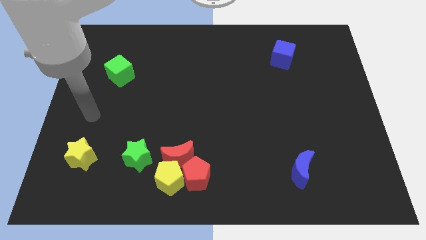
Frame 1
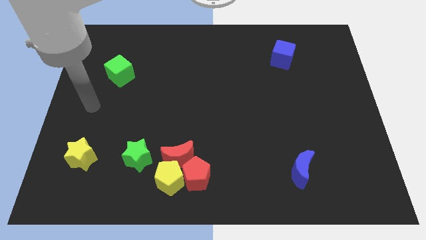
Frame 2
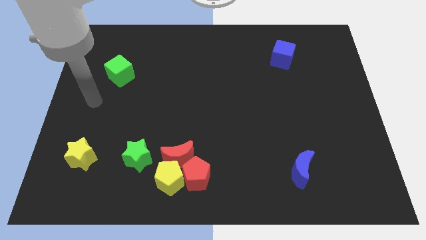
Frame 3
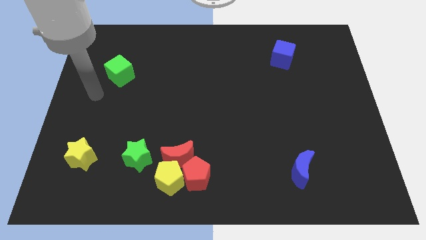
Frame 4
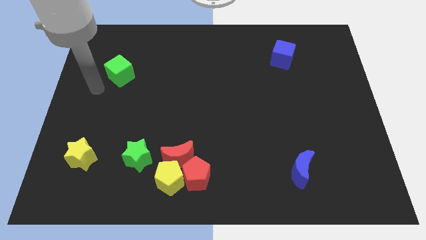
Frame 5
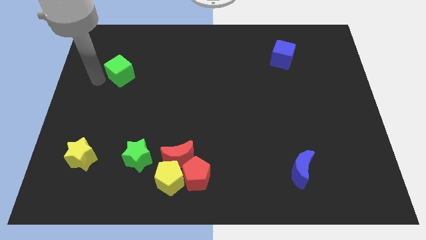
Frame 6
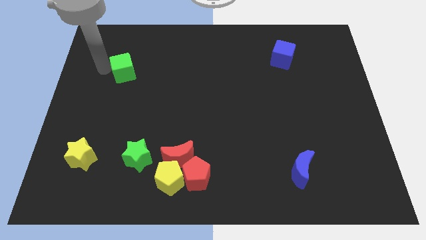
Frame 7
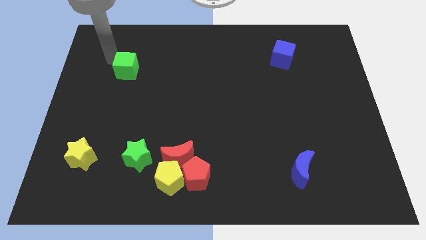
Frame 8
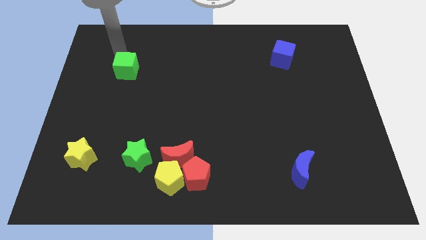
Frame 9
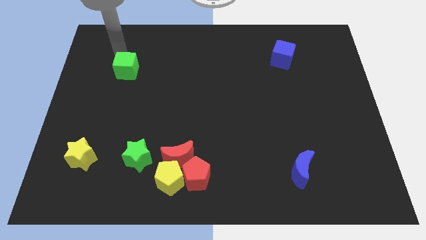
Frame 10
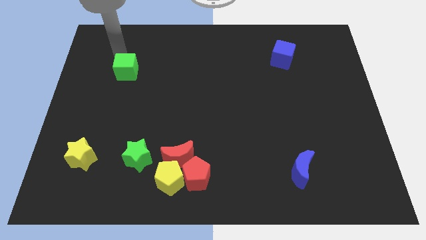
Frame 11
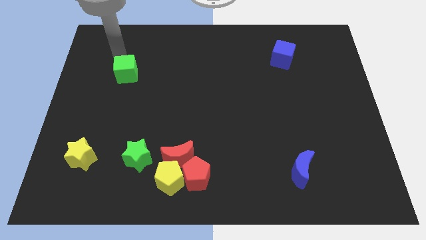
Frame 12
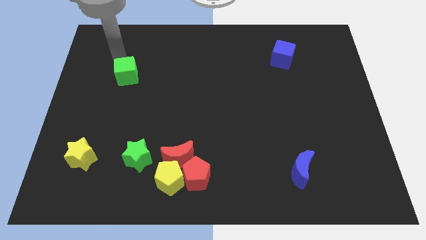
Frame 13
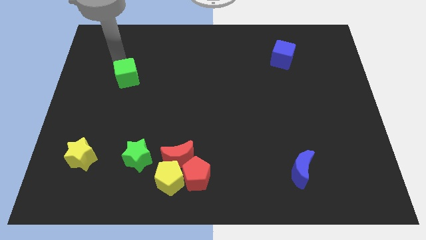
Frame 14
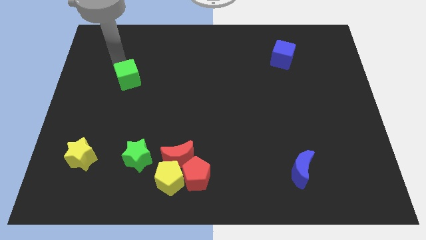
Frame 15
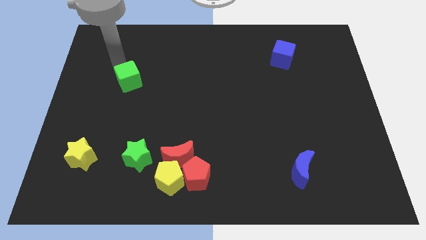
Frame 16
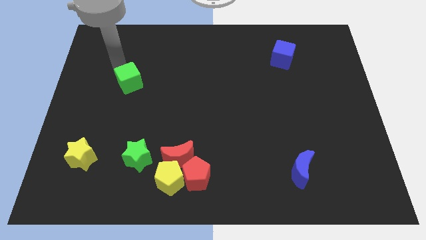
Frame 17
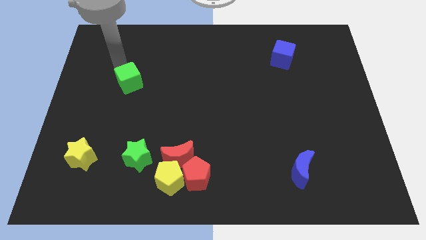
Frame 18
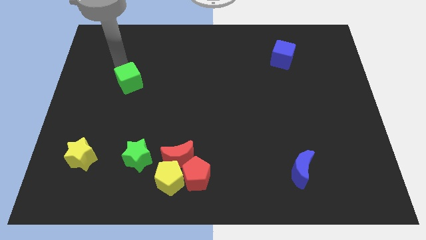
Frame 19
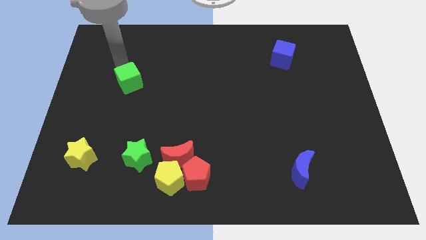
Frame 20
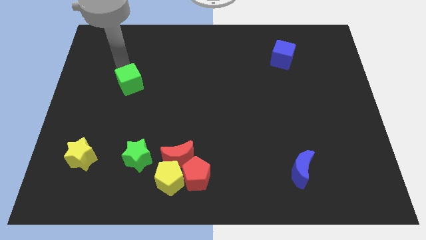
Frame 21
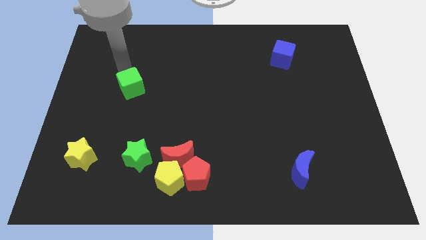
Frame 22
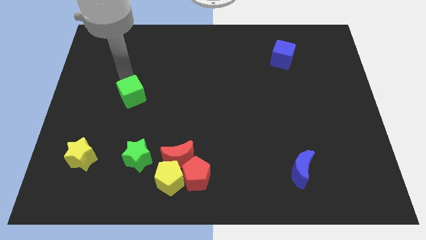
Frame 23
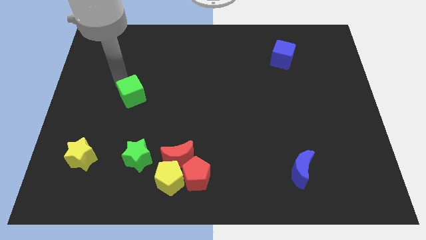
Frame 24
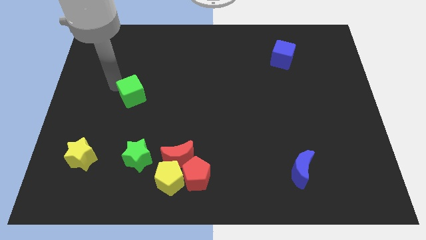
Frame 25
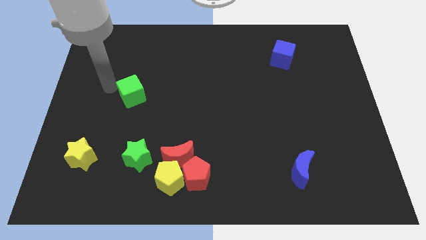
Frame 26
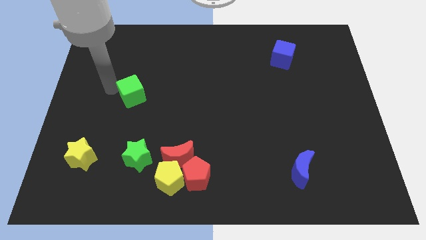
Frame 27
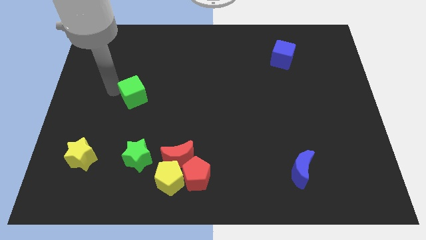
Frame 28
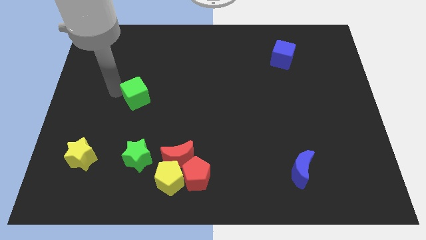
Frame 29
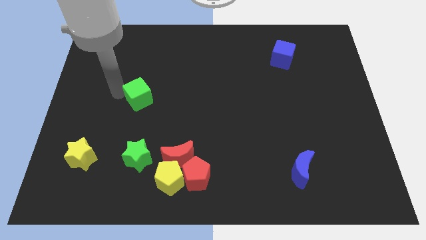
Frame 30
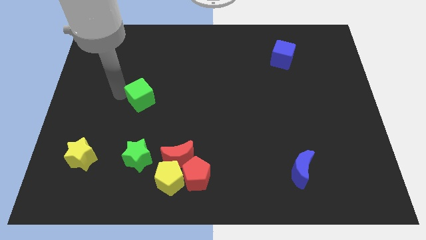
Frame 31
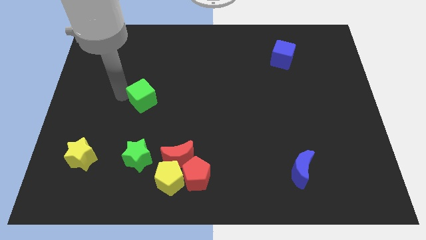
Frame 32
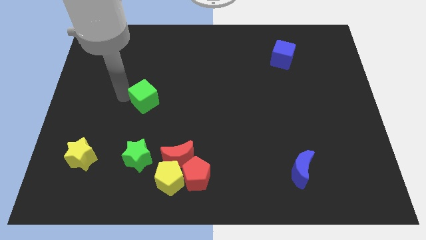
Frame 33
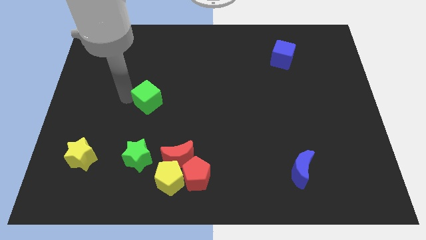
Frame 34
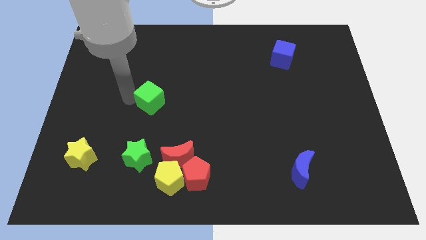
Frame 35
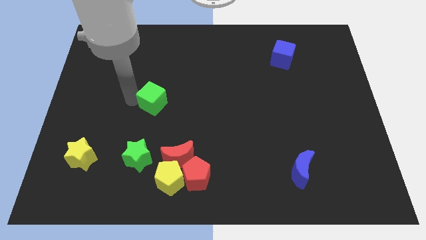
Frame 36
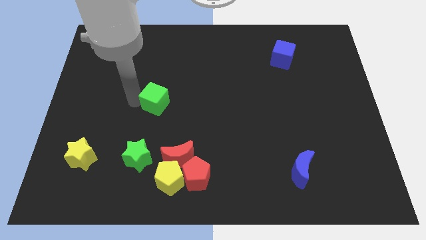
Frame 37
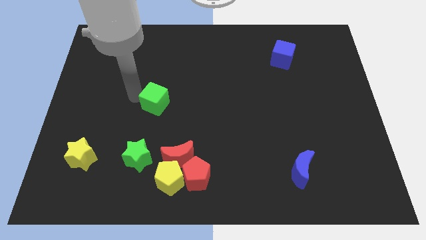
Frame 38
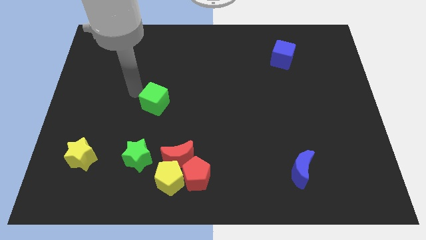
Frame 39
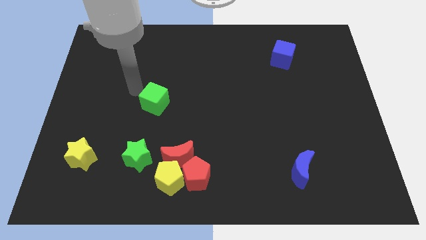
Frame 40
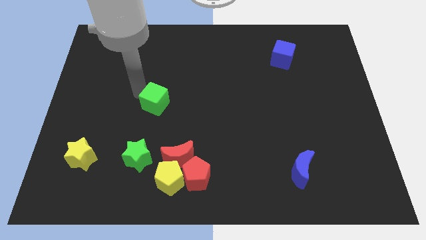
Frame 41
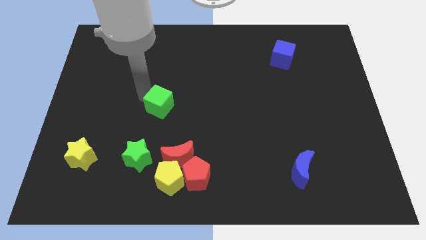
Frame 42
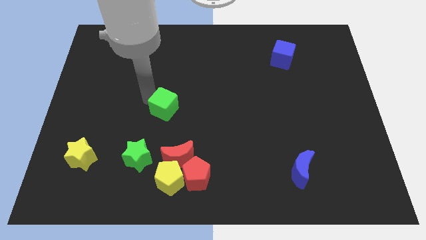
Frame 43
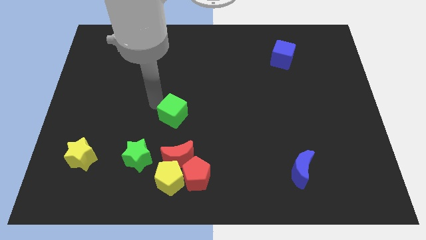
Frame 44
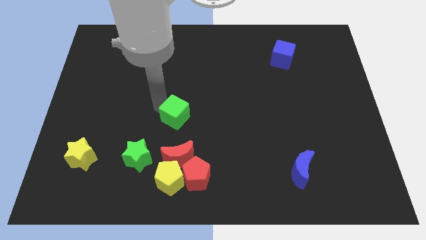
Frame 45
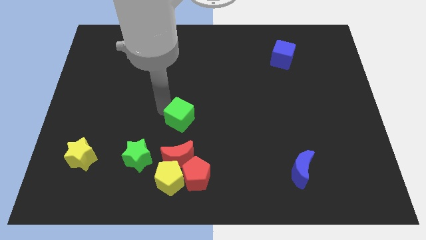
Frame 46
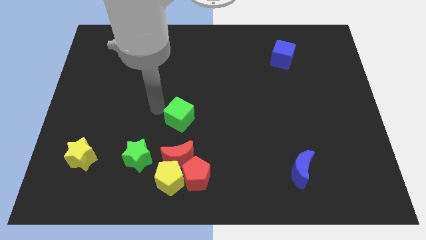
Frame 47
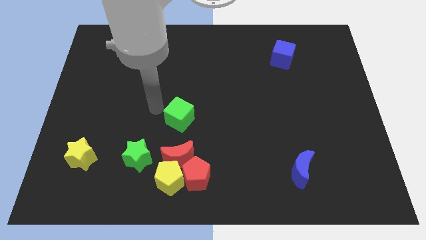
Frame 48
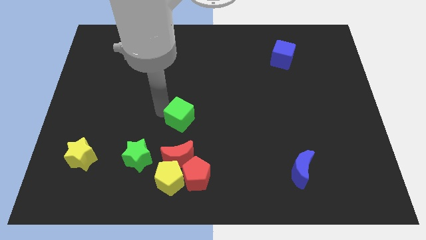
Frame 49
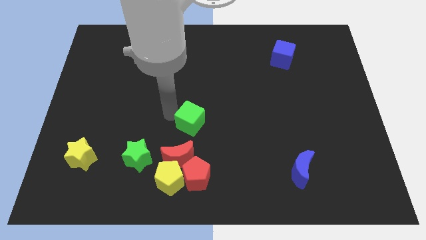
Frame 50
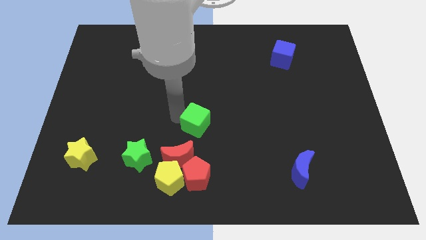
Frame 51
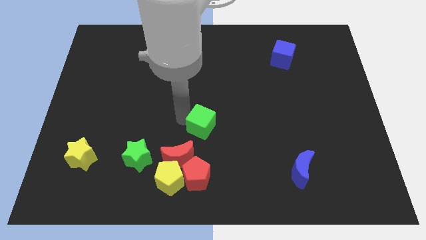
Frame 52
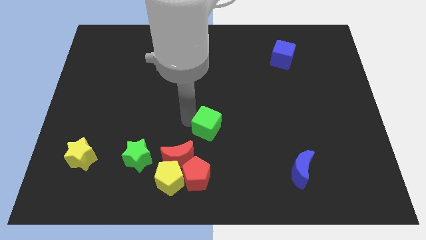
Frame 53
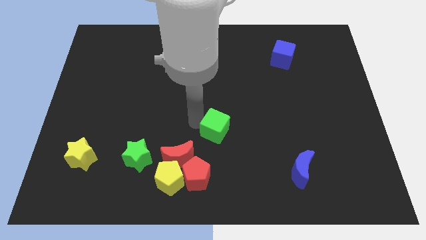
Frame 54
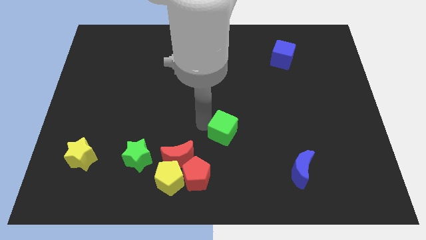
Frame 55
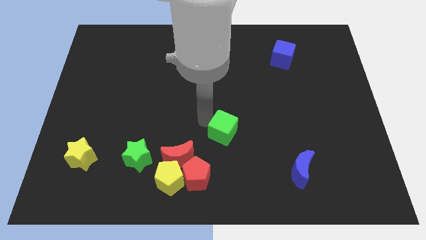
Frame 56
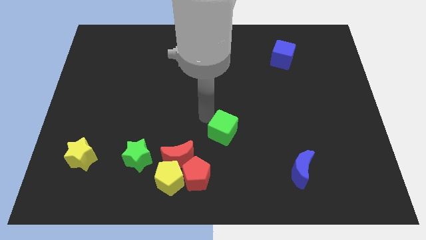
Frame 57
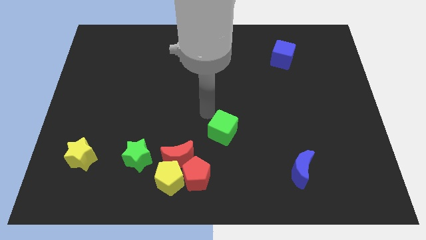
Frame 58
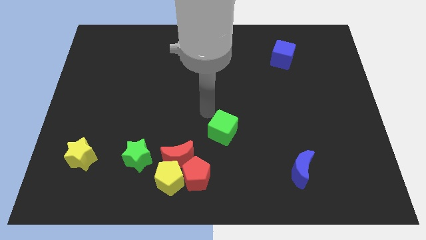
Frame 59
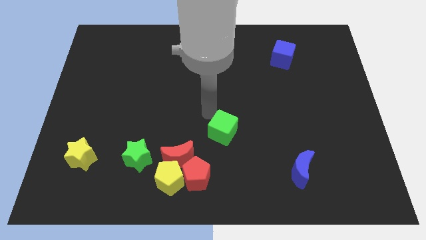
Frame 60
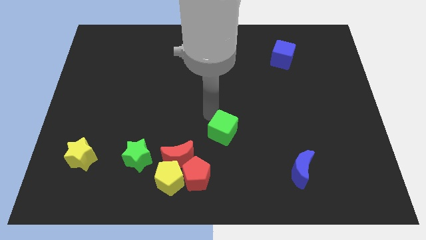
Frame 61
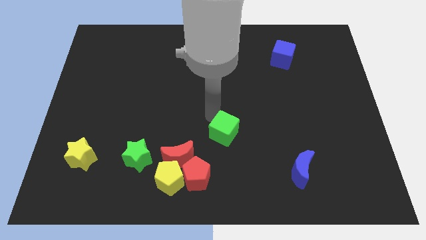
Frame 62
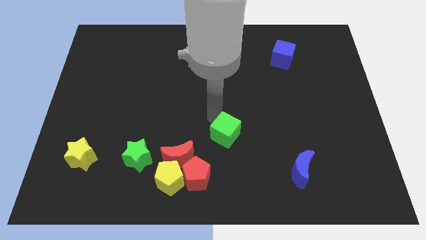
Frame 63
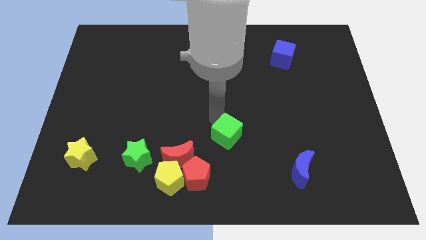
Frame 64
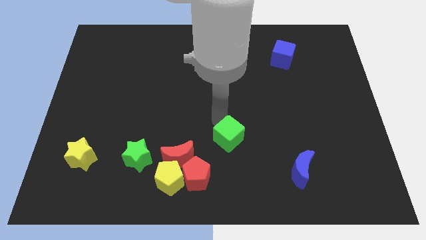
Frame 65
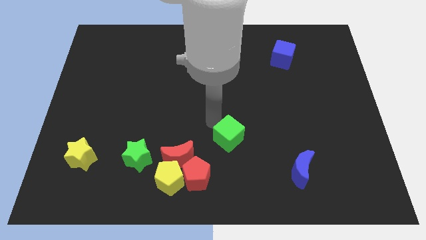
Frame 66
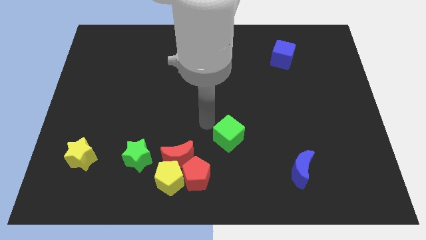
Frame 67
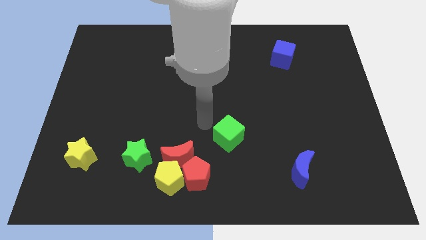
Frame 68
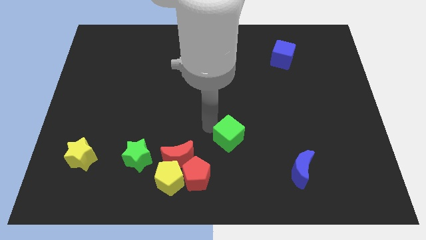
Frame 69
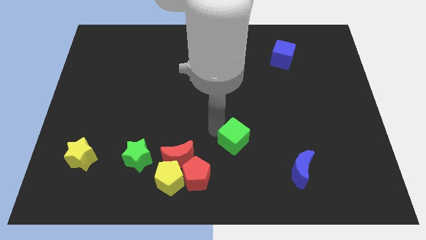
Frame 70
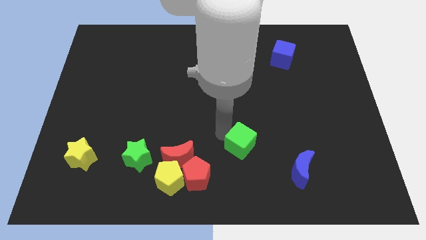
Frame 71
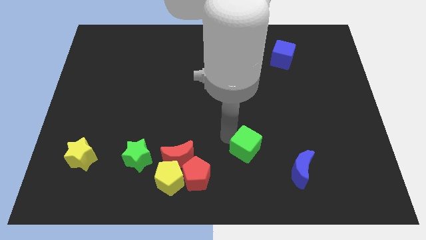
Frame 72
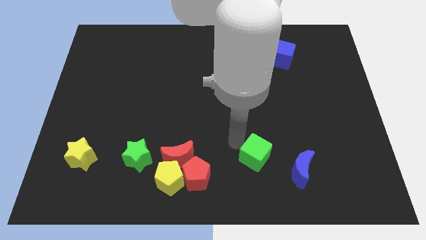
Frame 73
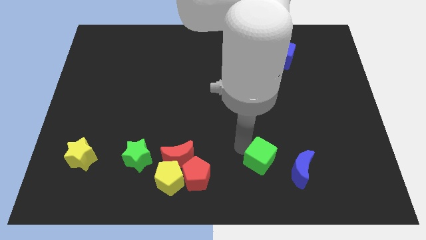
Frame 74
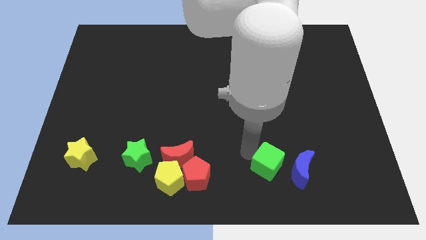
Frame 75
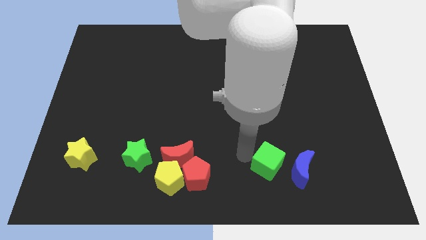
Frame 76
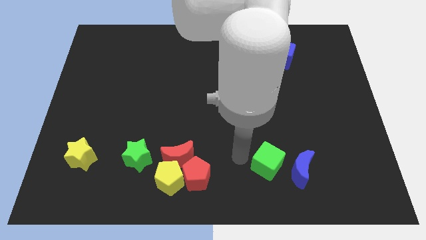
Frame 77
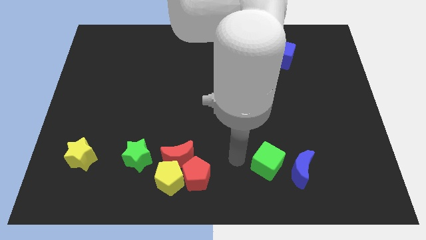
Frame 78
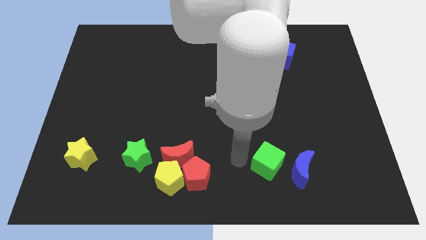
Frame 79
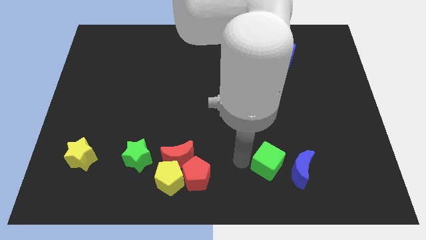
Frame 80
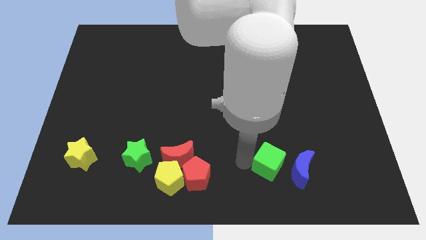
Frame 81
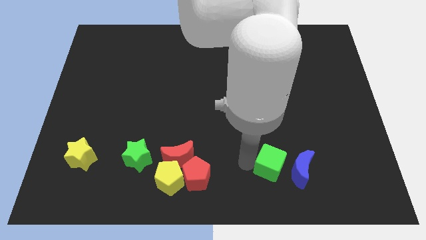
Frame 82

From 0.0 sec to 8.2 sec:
move the green cube to the blue moon
